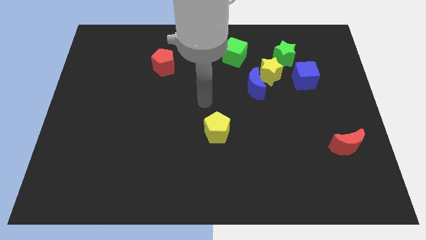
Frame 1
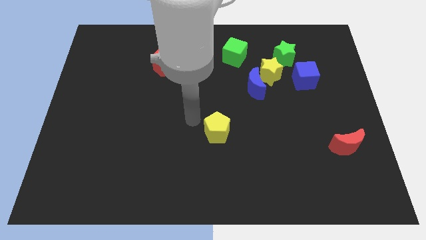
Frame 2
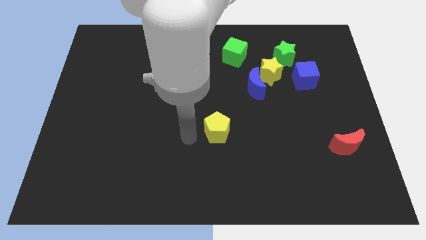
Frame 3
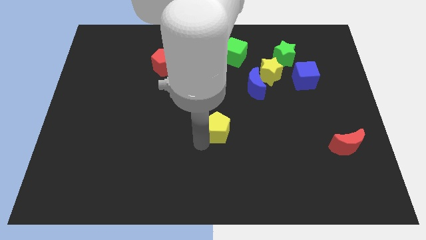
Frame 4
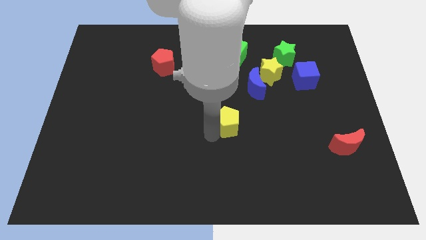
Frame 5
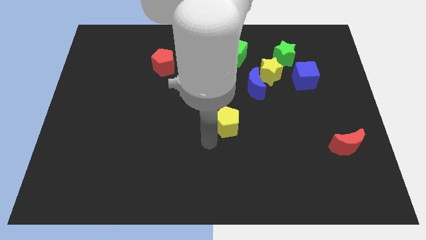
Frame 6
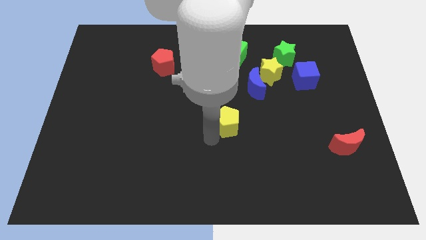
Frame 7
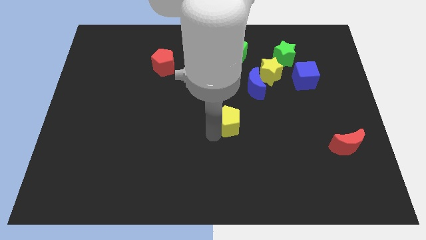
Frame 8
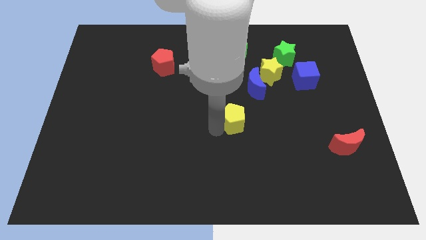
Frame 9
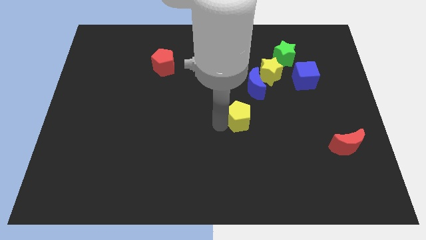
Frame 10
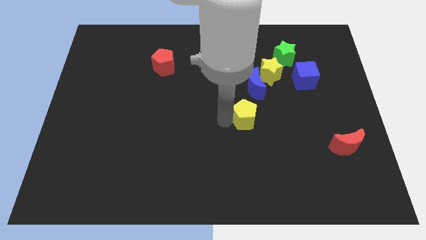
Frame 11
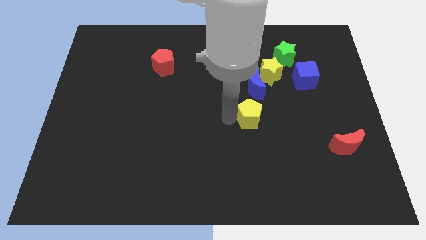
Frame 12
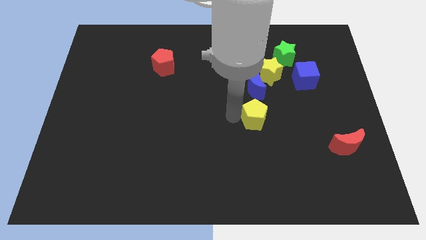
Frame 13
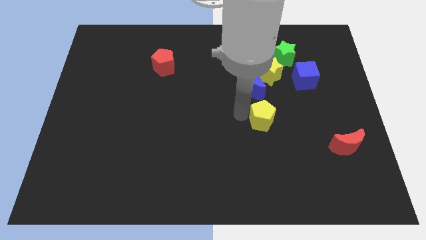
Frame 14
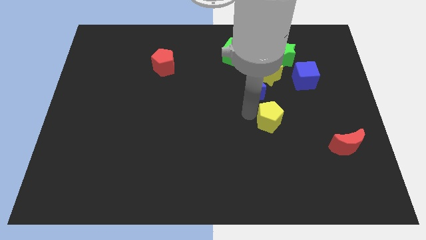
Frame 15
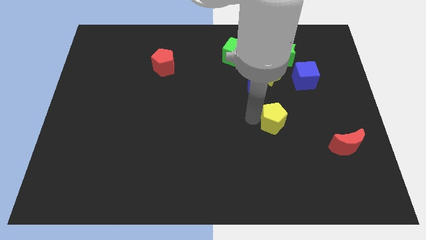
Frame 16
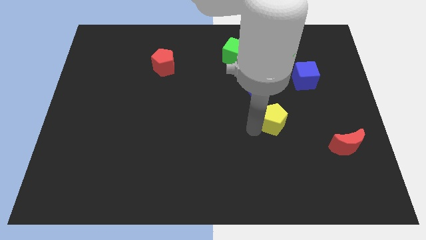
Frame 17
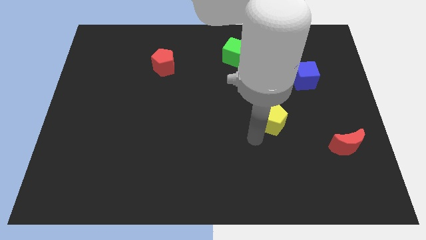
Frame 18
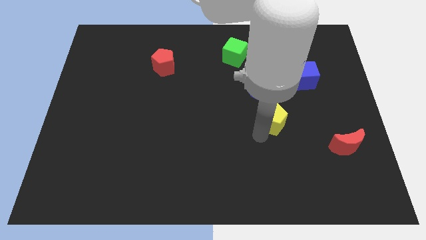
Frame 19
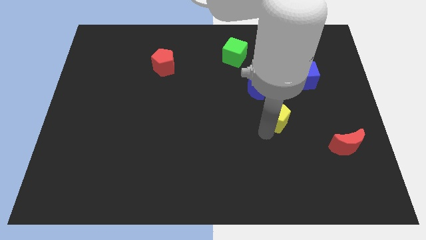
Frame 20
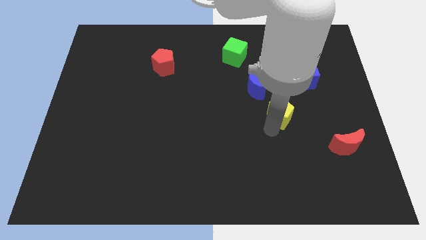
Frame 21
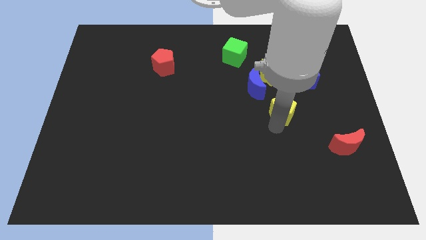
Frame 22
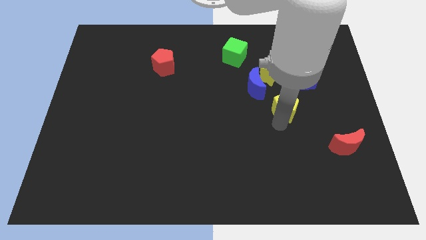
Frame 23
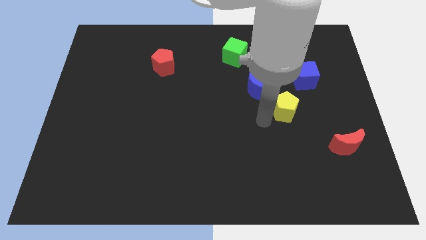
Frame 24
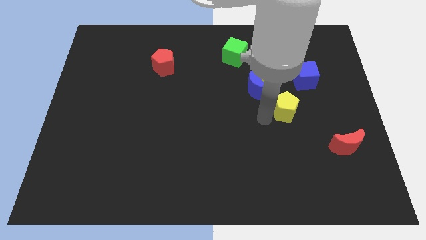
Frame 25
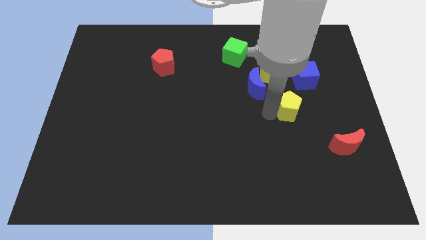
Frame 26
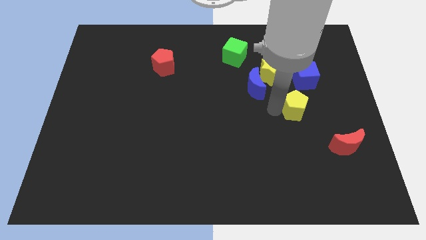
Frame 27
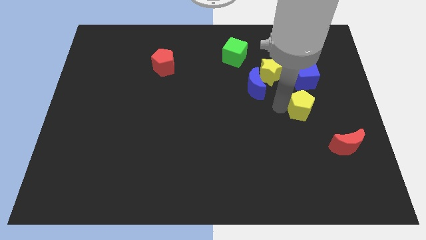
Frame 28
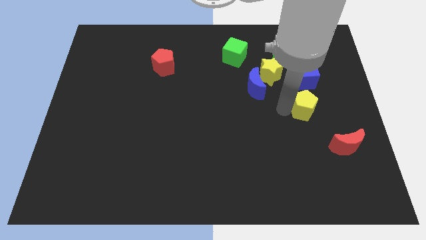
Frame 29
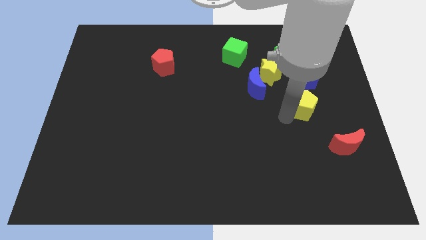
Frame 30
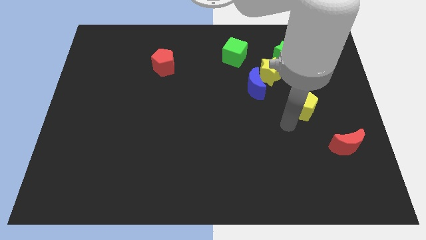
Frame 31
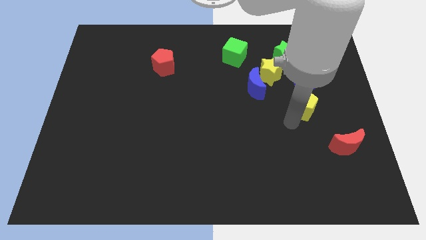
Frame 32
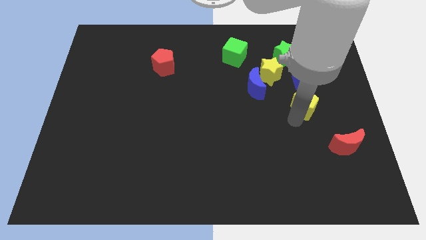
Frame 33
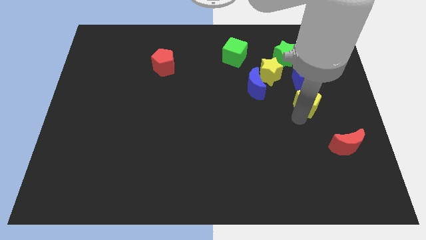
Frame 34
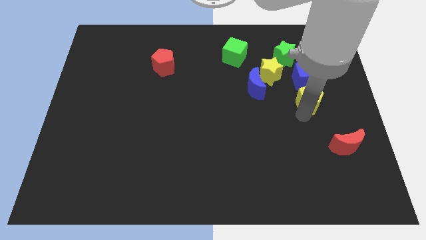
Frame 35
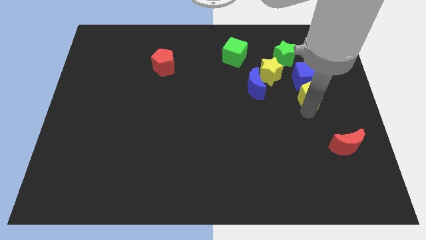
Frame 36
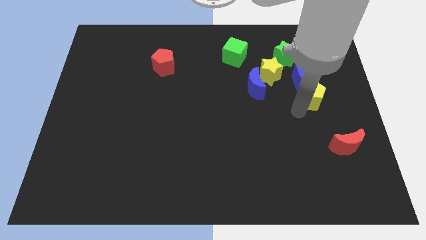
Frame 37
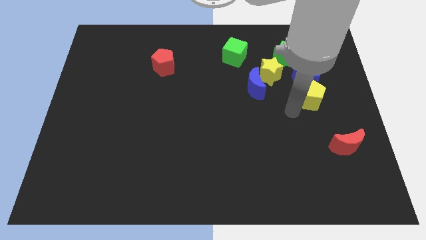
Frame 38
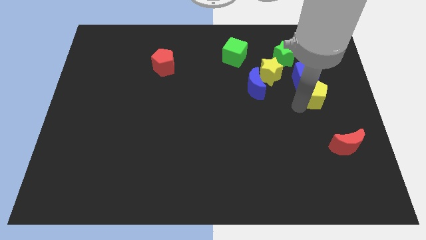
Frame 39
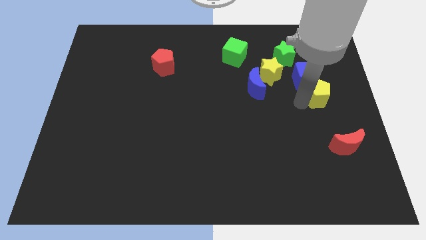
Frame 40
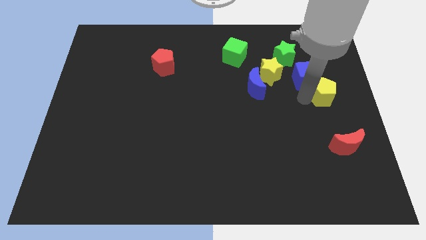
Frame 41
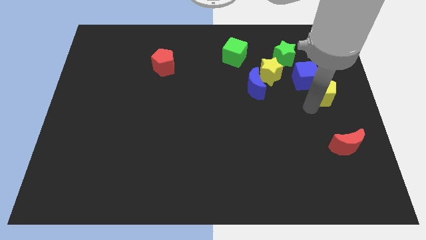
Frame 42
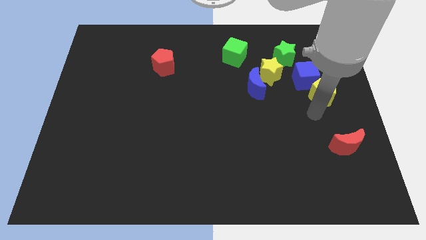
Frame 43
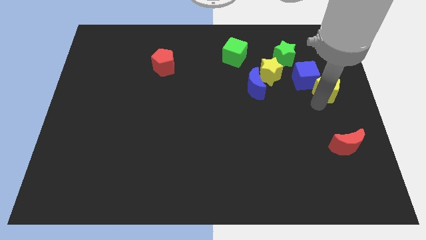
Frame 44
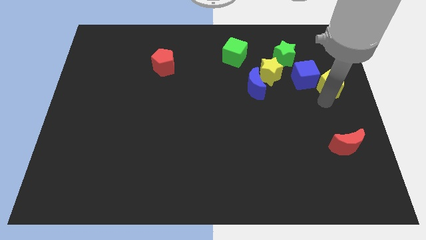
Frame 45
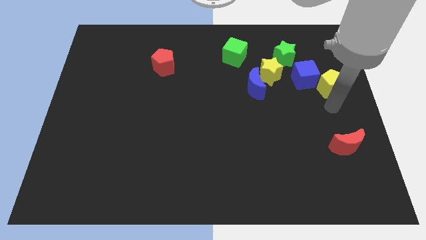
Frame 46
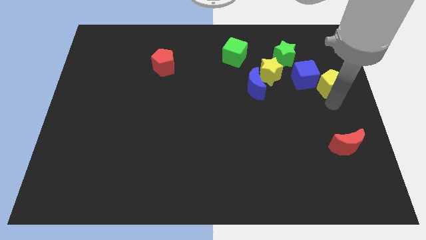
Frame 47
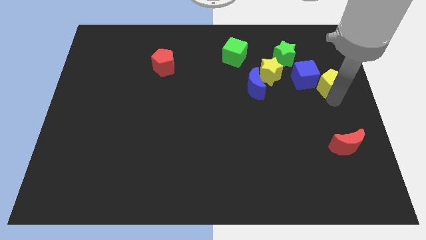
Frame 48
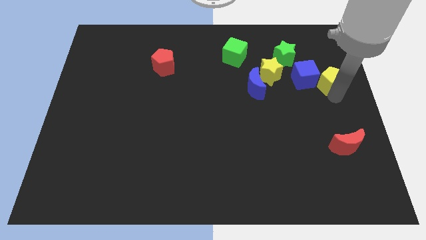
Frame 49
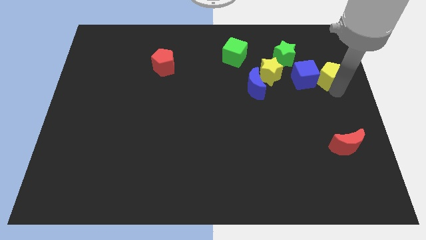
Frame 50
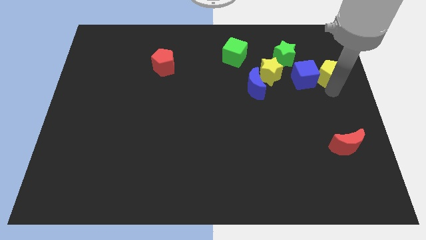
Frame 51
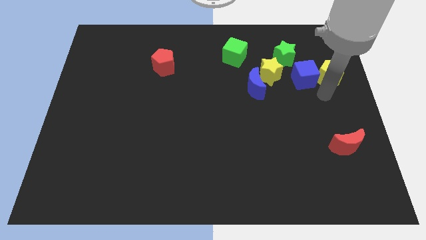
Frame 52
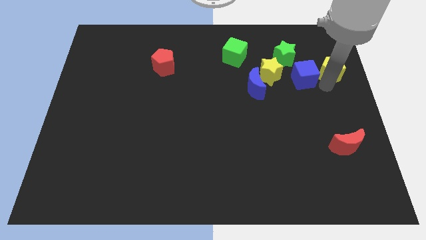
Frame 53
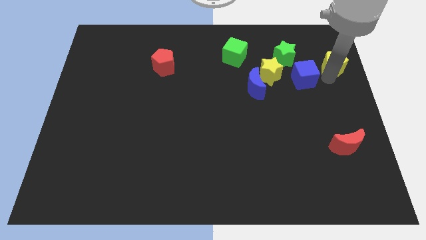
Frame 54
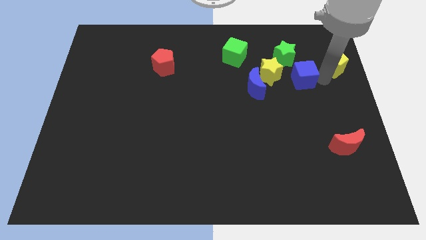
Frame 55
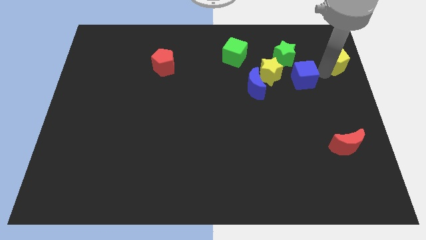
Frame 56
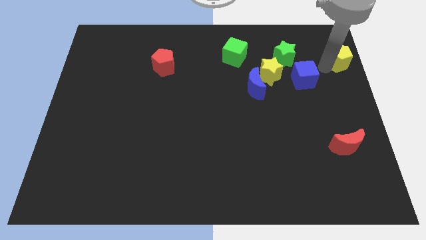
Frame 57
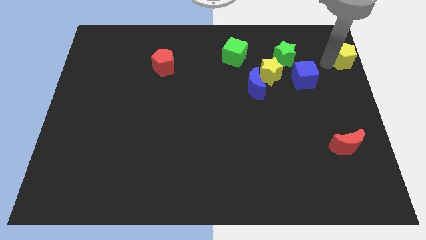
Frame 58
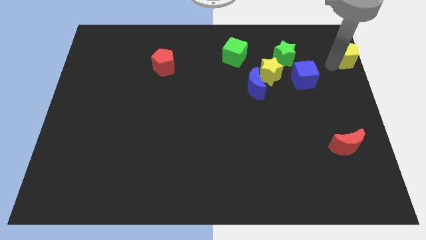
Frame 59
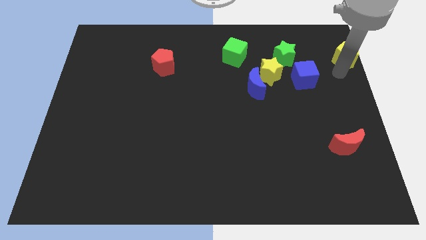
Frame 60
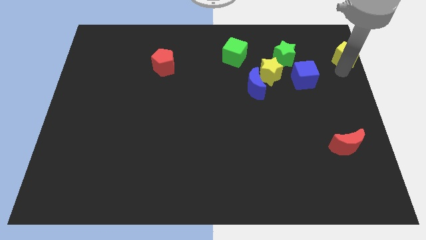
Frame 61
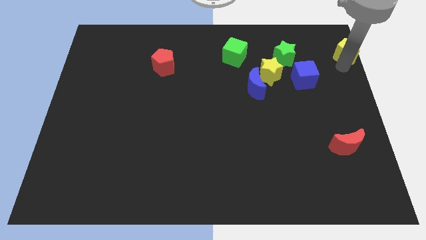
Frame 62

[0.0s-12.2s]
put the yellow pentagon to the top right corner

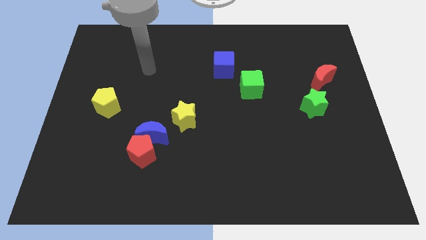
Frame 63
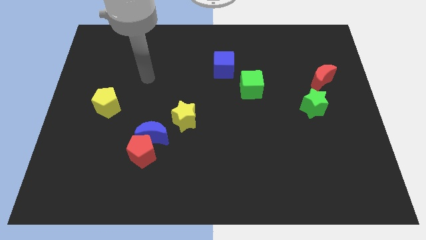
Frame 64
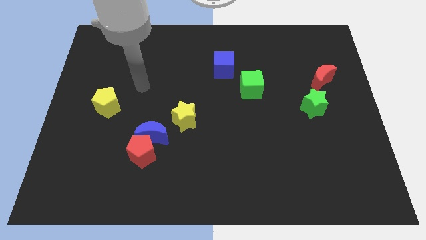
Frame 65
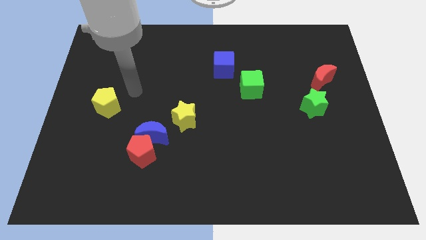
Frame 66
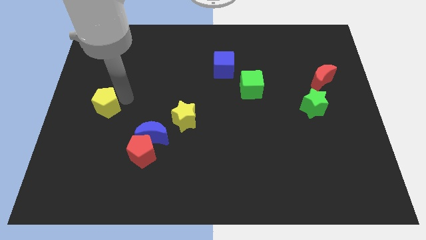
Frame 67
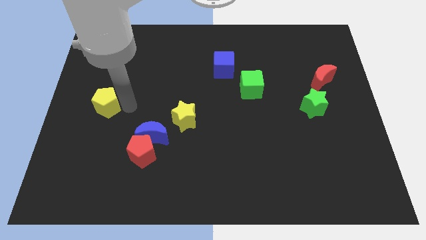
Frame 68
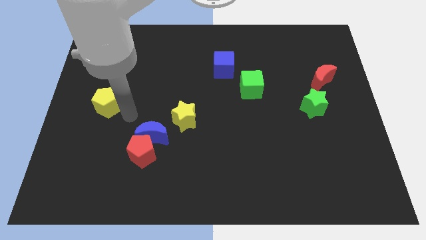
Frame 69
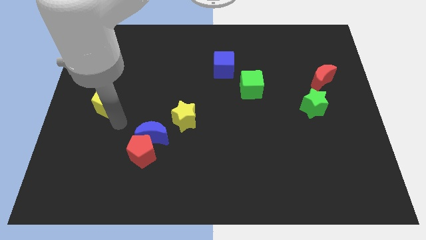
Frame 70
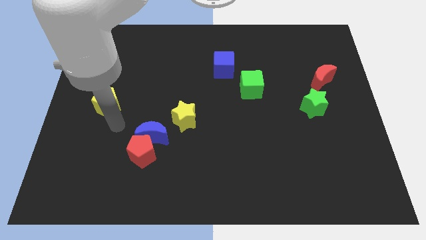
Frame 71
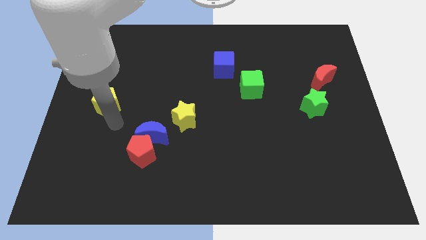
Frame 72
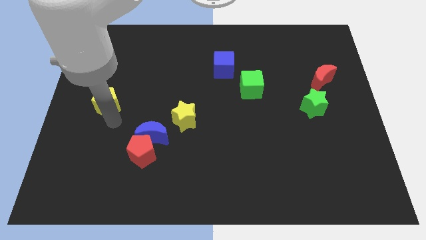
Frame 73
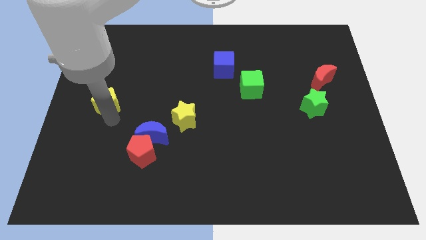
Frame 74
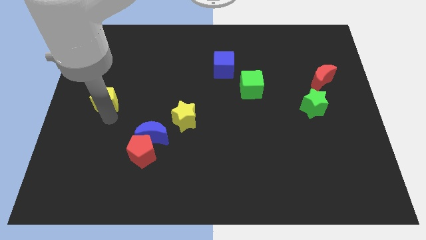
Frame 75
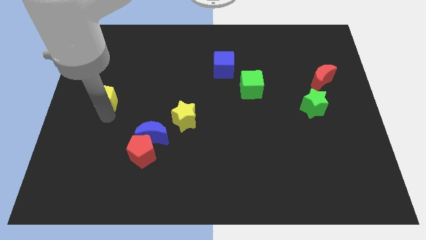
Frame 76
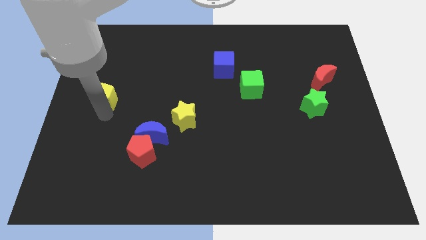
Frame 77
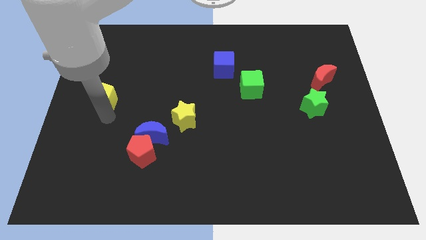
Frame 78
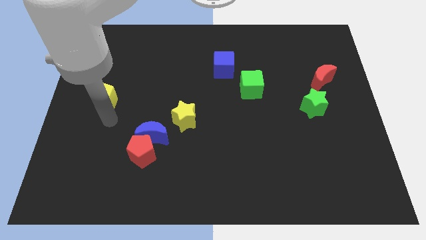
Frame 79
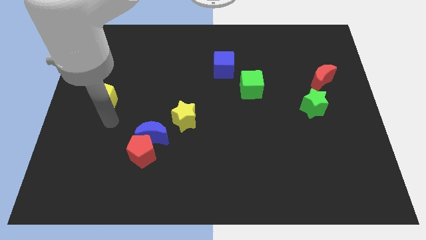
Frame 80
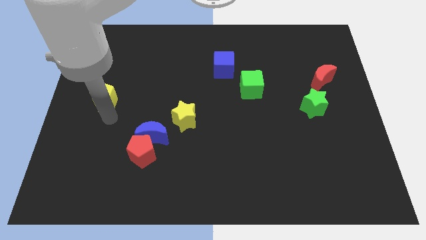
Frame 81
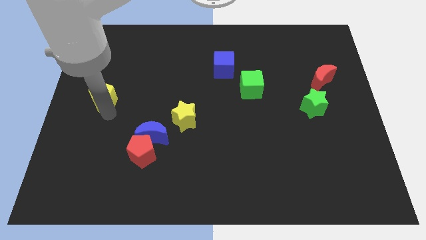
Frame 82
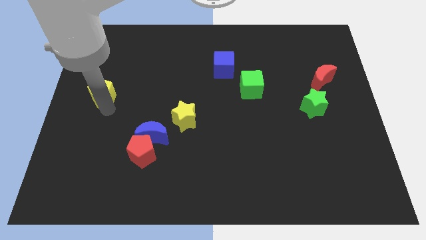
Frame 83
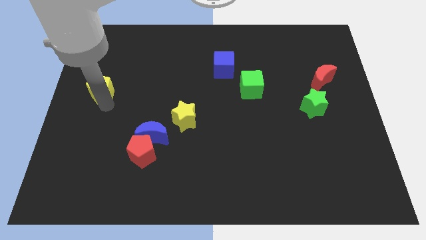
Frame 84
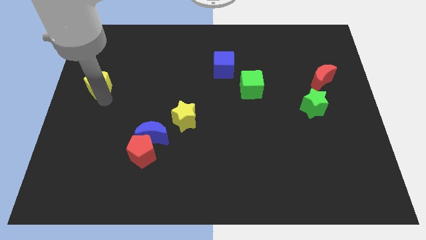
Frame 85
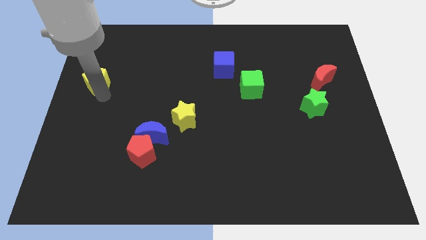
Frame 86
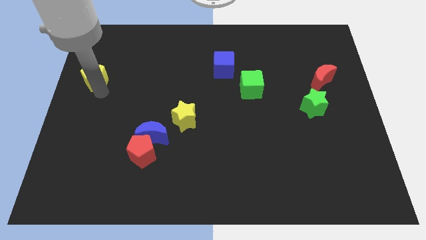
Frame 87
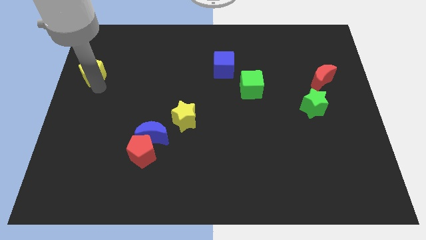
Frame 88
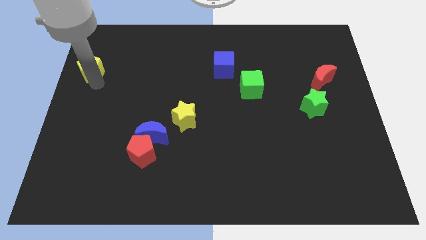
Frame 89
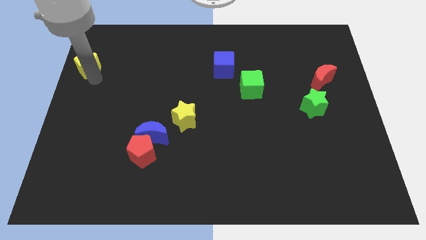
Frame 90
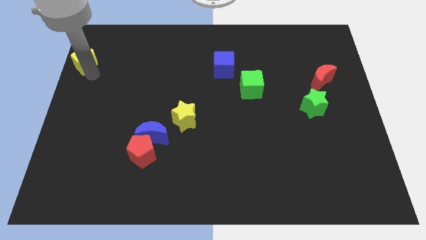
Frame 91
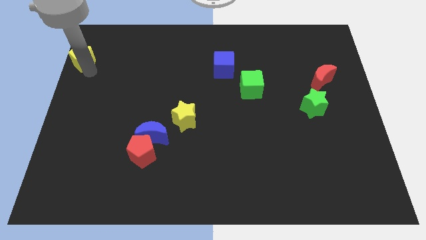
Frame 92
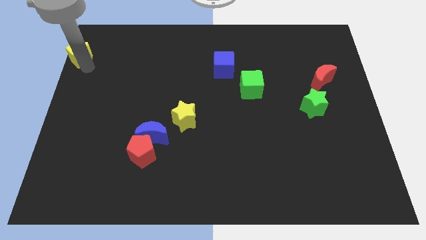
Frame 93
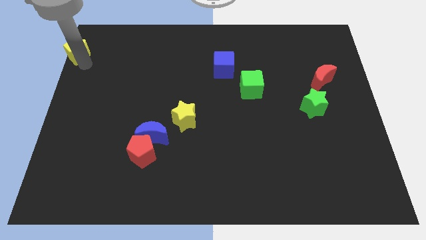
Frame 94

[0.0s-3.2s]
put the yellow pentagon to the upper left corner
